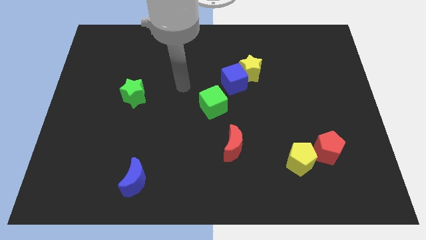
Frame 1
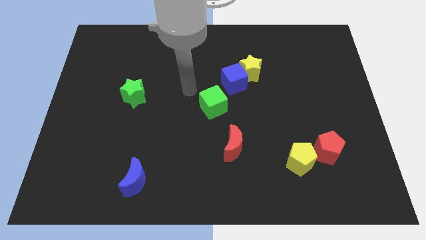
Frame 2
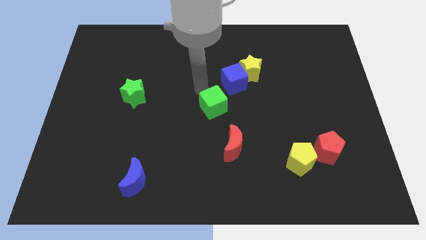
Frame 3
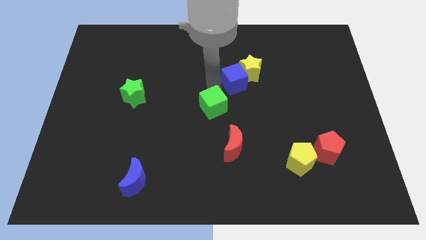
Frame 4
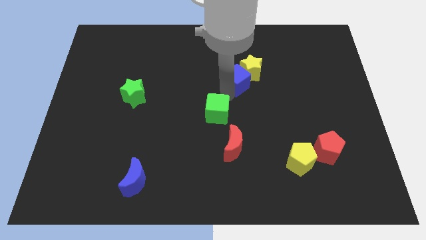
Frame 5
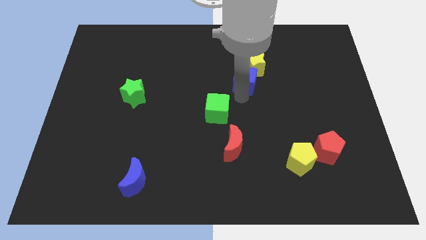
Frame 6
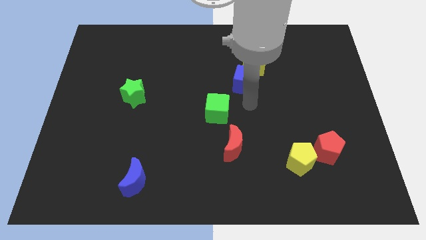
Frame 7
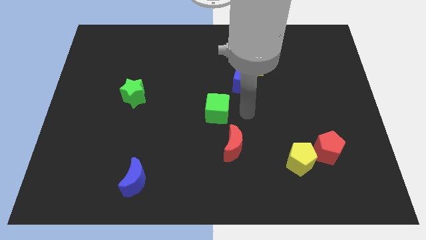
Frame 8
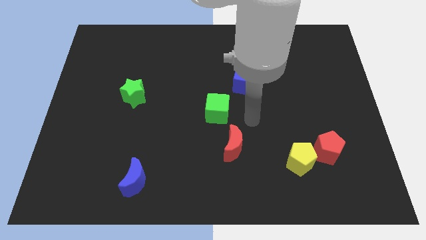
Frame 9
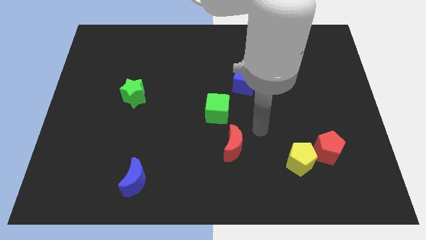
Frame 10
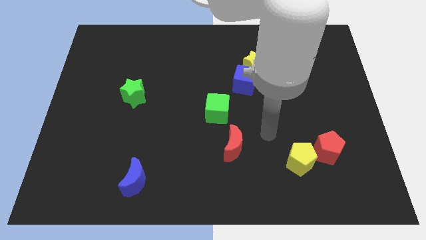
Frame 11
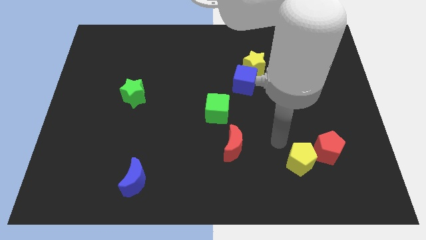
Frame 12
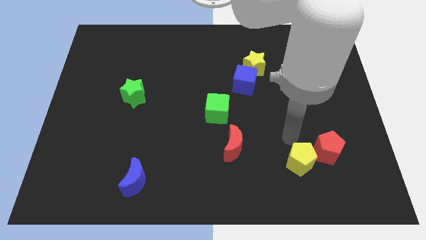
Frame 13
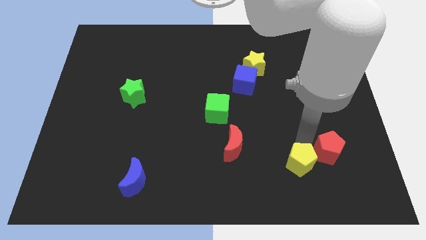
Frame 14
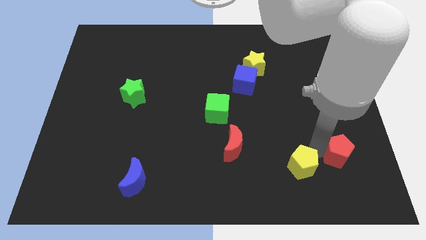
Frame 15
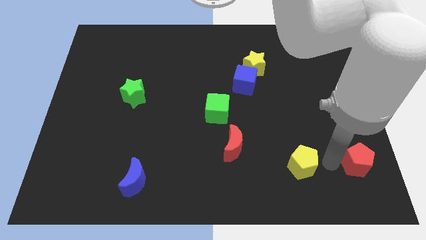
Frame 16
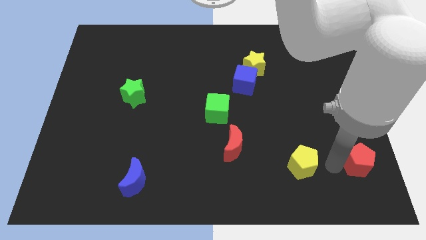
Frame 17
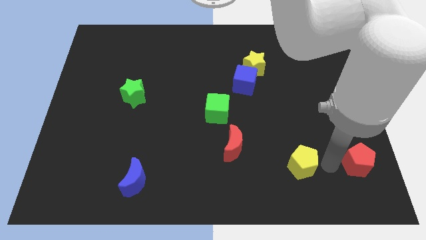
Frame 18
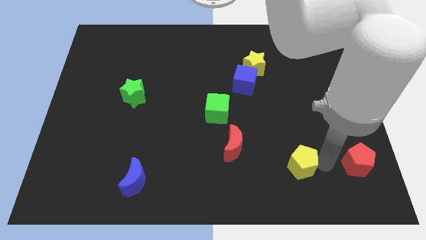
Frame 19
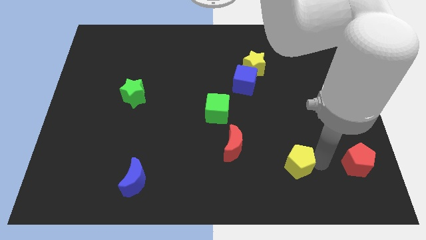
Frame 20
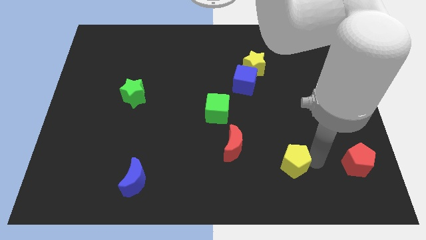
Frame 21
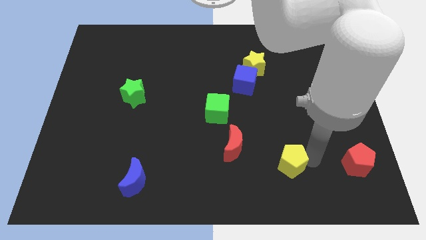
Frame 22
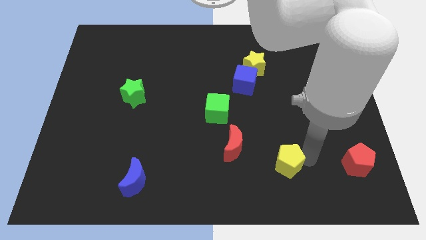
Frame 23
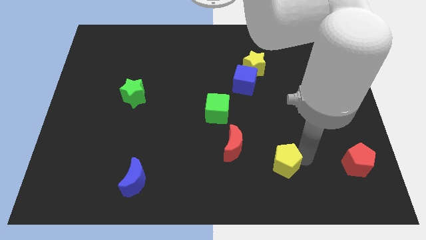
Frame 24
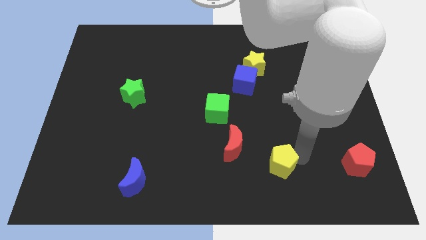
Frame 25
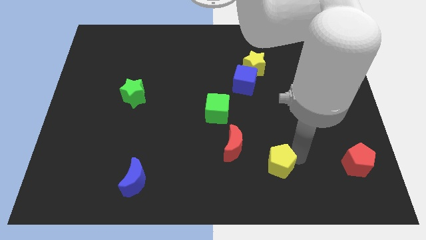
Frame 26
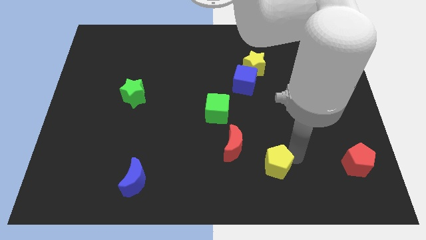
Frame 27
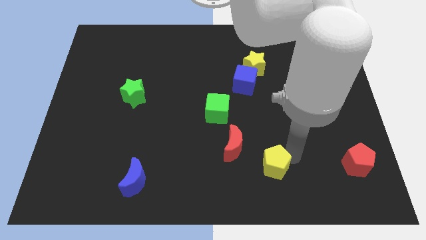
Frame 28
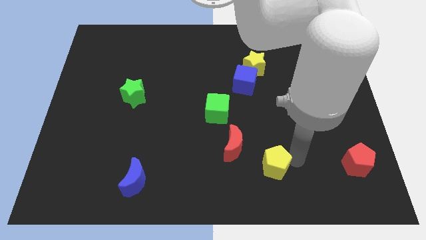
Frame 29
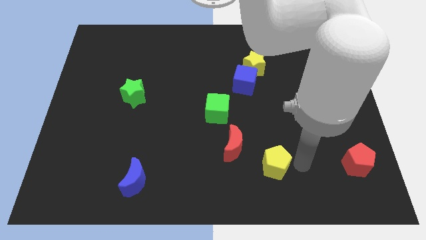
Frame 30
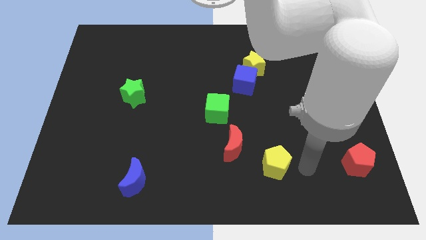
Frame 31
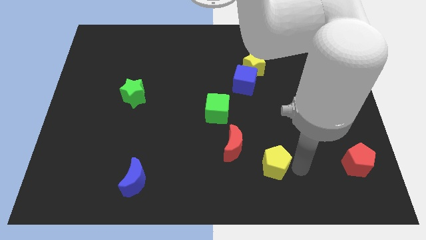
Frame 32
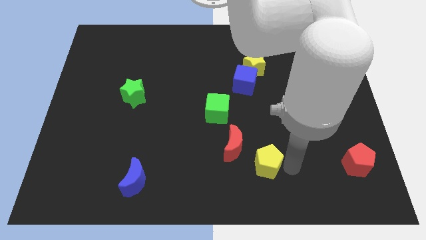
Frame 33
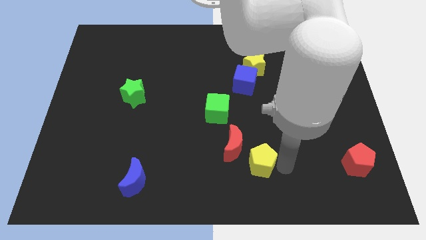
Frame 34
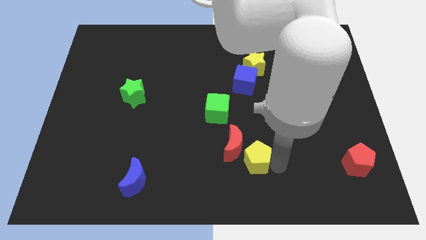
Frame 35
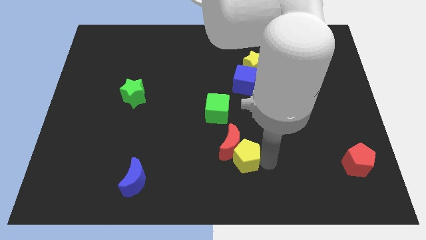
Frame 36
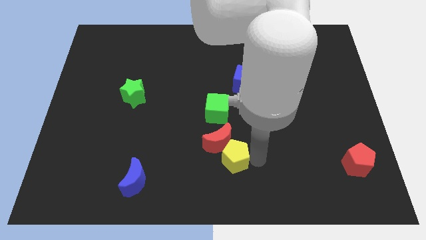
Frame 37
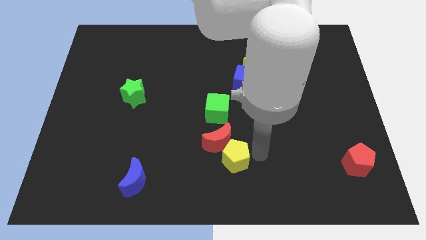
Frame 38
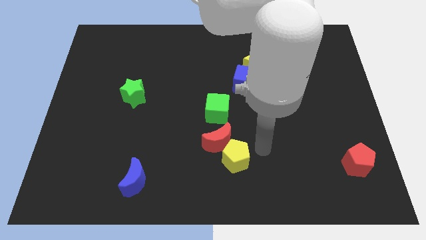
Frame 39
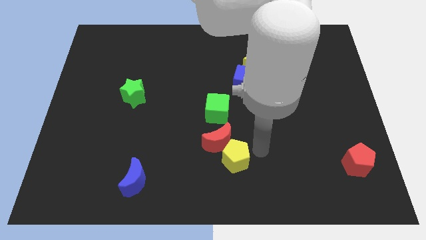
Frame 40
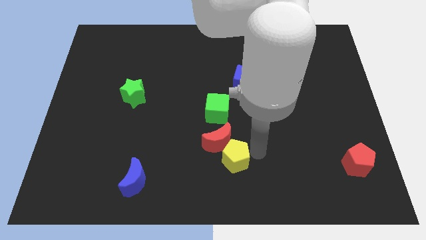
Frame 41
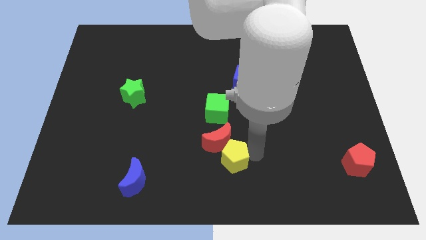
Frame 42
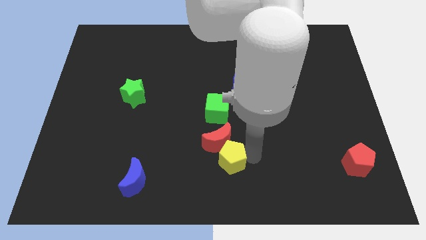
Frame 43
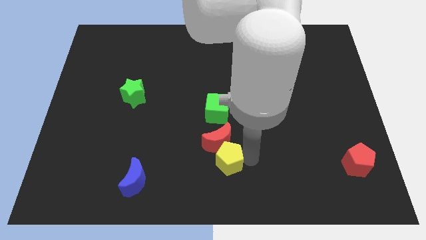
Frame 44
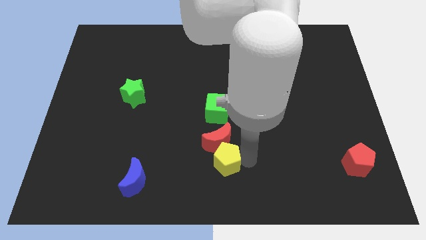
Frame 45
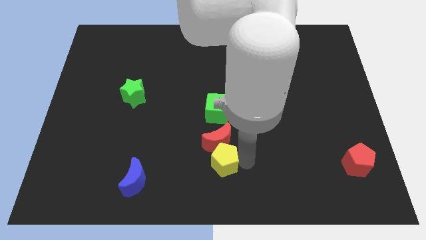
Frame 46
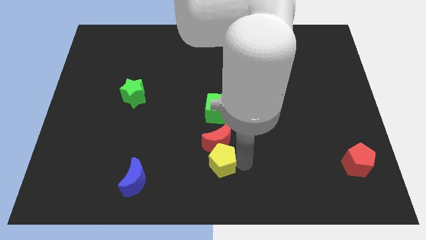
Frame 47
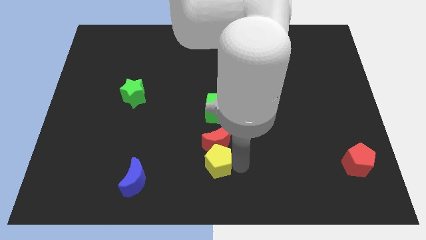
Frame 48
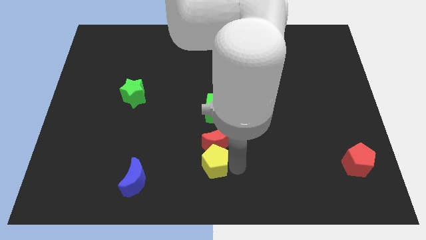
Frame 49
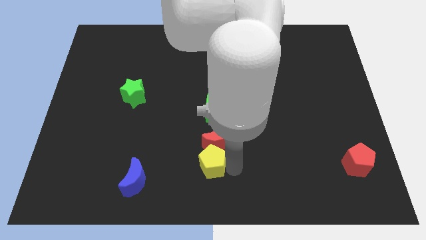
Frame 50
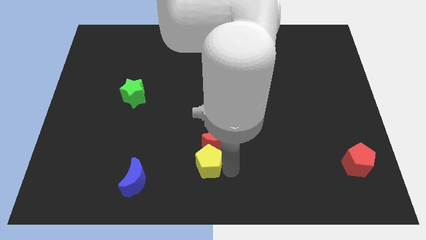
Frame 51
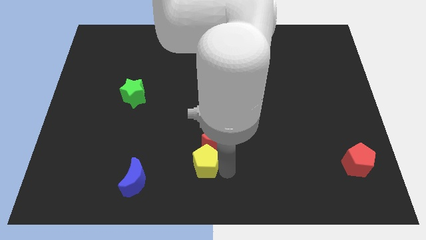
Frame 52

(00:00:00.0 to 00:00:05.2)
move the yellow pentagon left

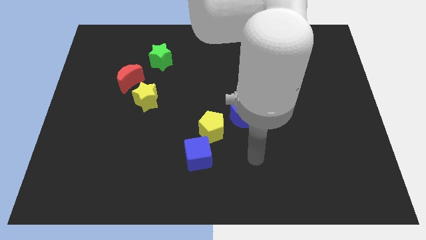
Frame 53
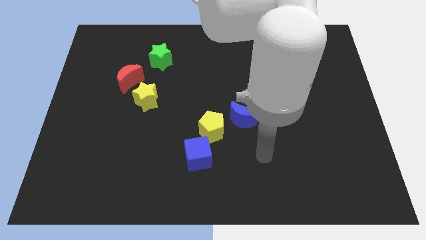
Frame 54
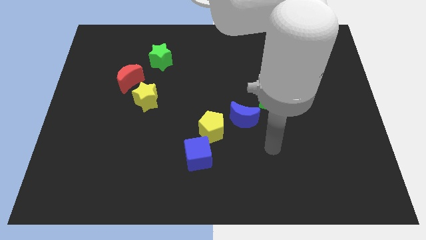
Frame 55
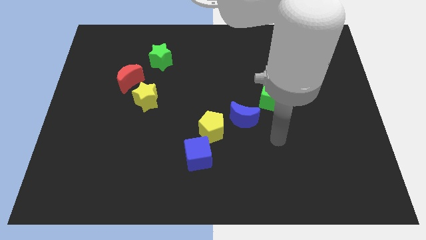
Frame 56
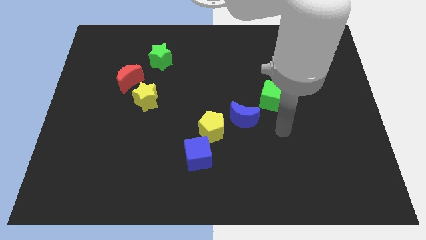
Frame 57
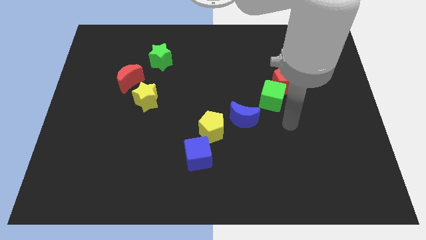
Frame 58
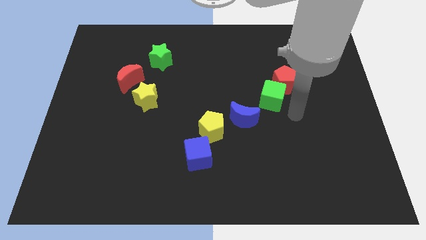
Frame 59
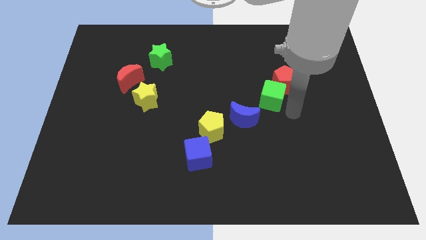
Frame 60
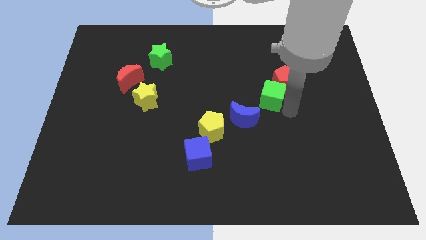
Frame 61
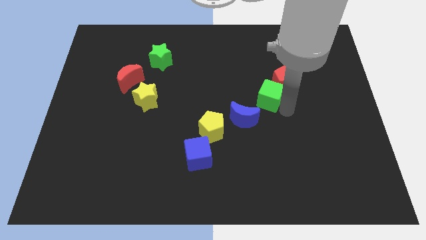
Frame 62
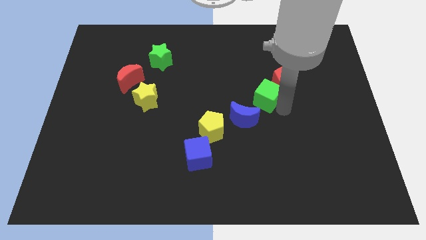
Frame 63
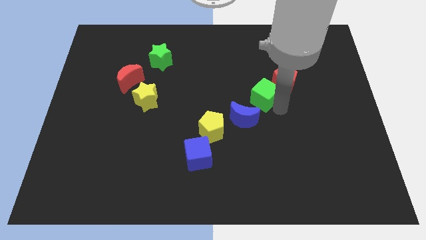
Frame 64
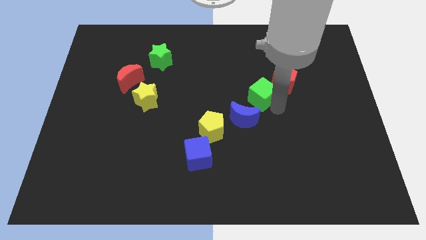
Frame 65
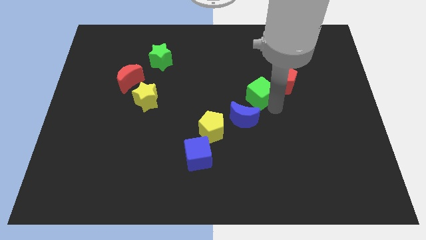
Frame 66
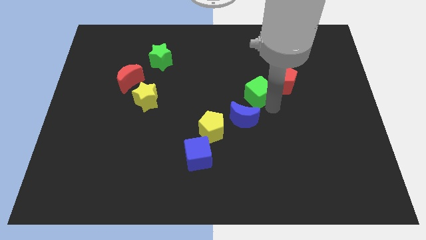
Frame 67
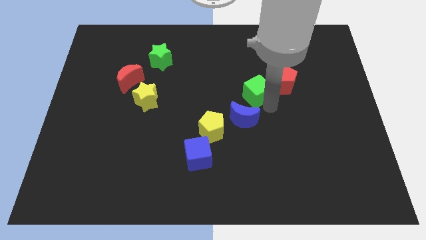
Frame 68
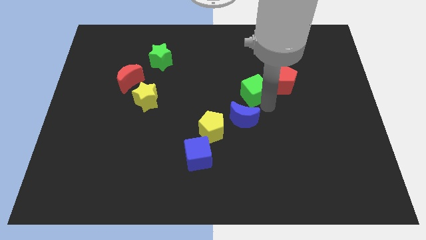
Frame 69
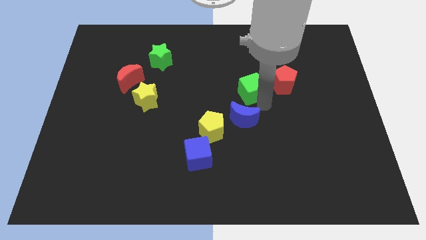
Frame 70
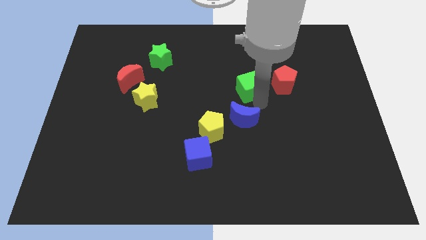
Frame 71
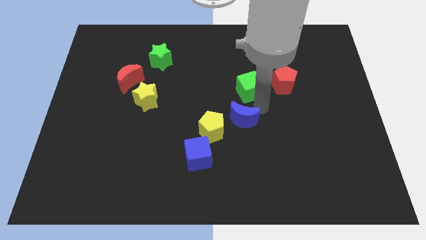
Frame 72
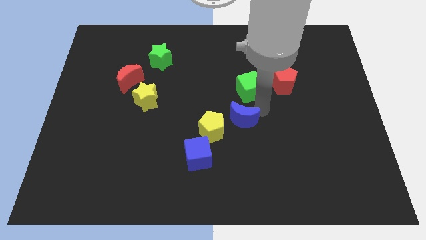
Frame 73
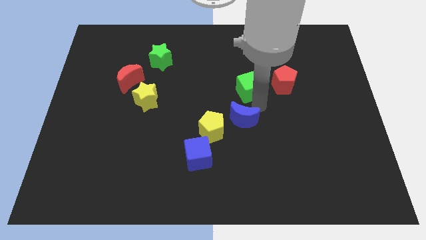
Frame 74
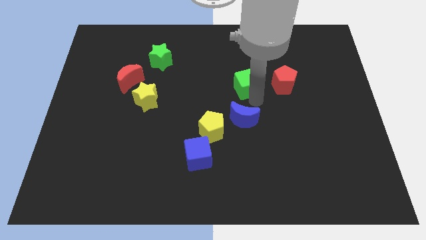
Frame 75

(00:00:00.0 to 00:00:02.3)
push the green cube a little upwards and to the left diagonally
